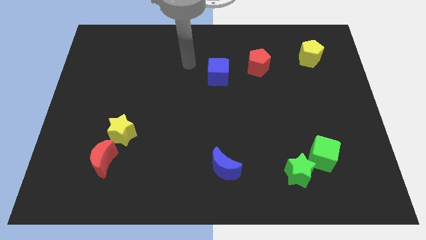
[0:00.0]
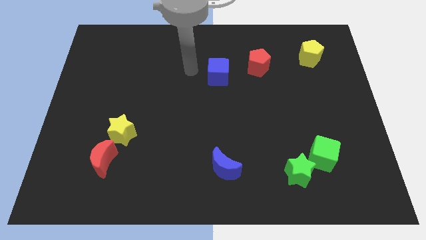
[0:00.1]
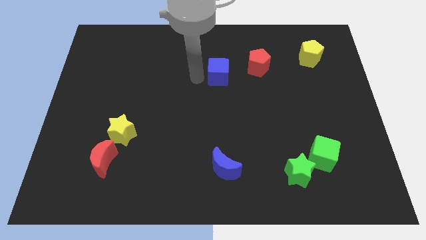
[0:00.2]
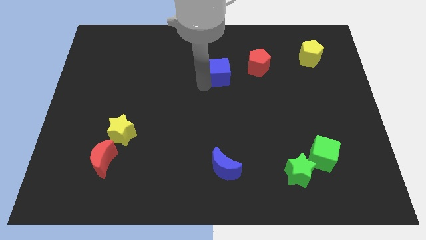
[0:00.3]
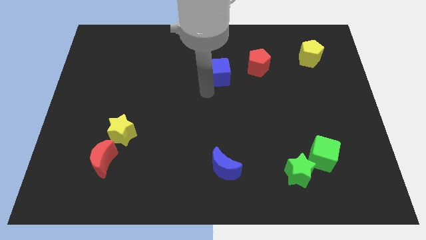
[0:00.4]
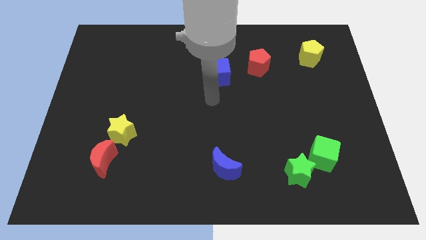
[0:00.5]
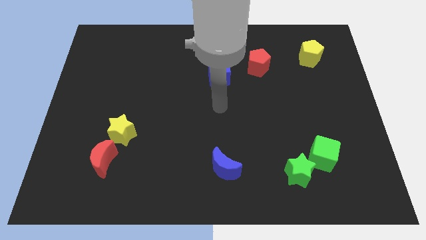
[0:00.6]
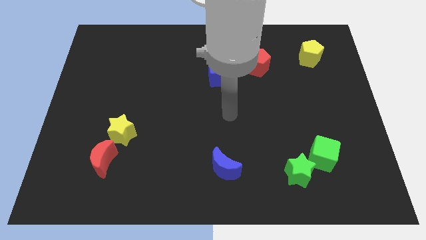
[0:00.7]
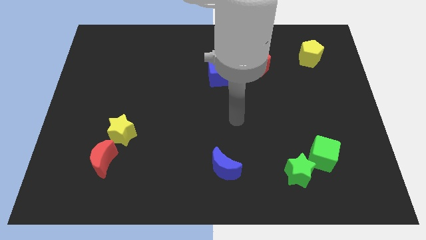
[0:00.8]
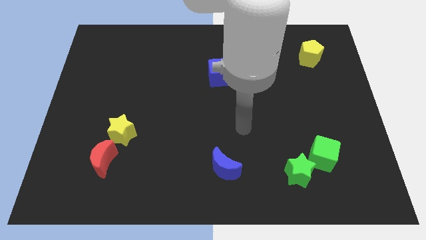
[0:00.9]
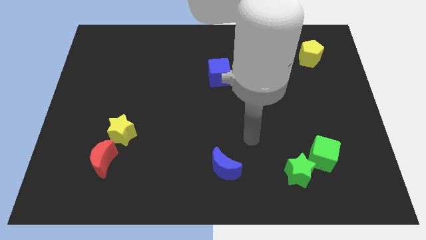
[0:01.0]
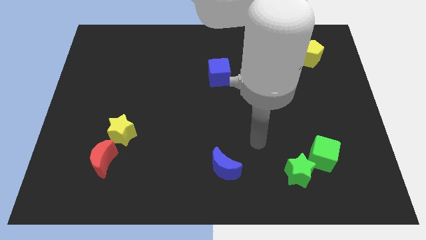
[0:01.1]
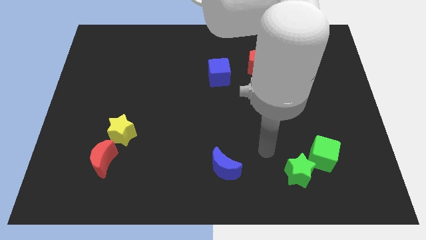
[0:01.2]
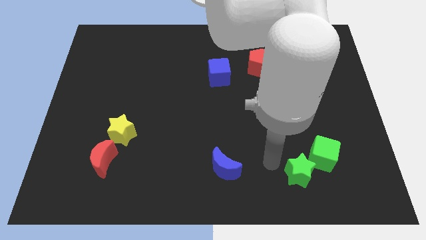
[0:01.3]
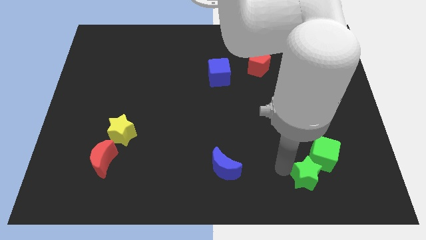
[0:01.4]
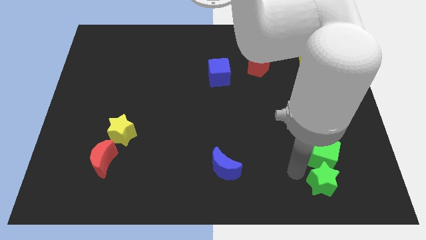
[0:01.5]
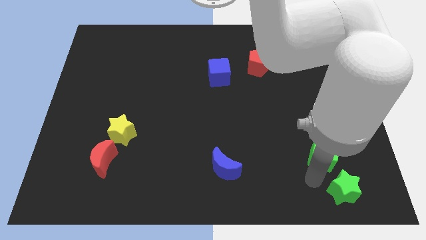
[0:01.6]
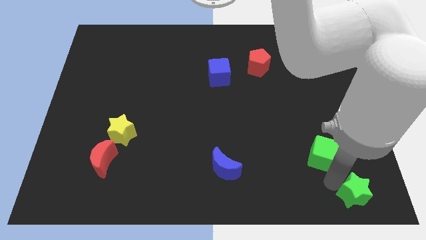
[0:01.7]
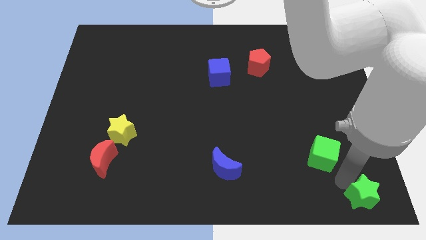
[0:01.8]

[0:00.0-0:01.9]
pull the green cube apart from the green star

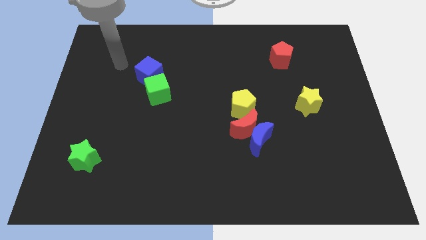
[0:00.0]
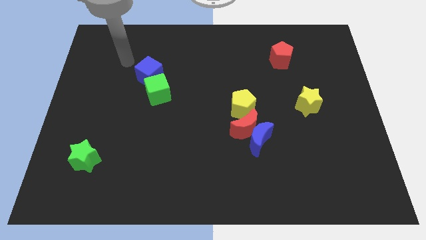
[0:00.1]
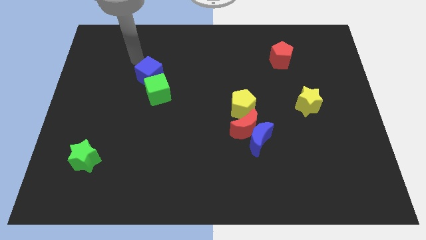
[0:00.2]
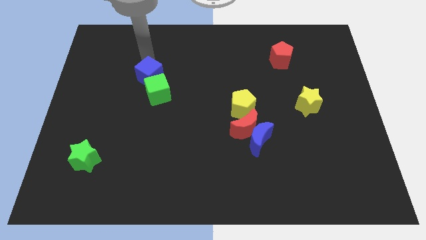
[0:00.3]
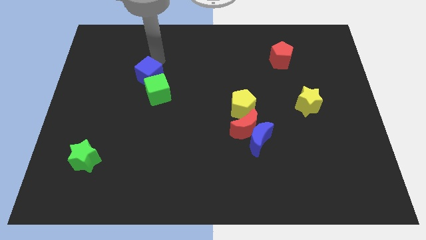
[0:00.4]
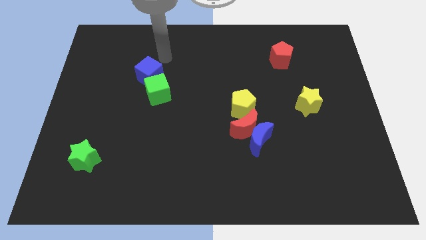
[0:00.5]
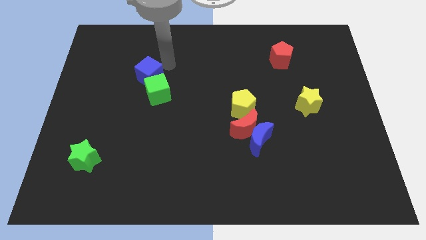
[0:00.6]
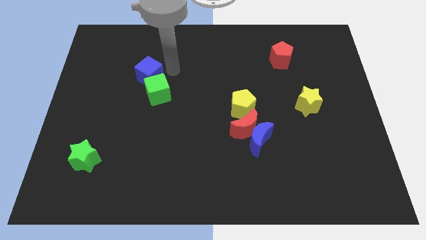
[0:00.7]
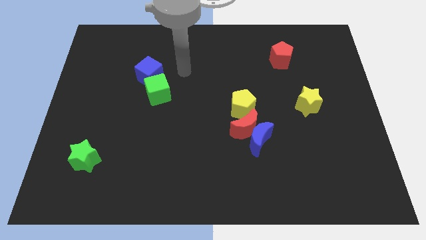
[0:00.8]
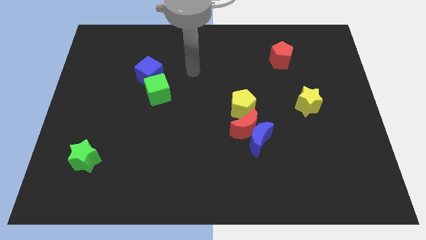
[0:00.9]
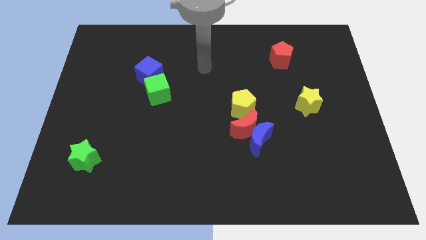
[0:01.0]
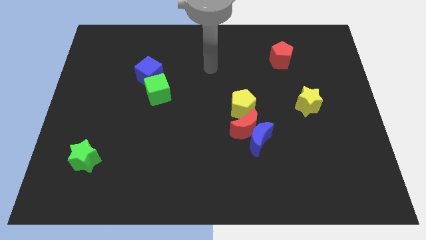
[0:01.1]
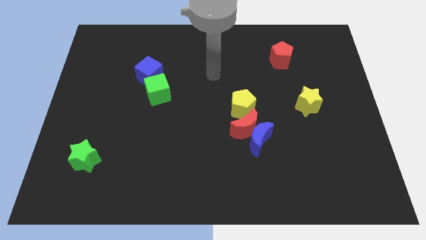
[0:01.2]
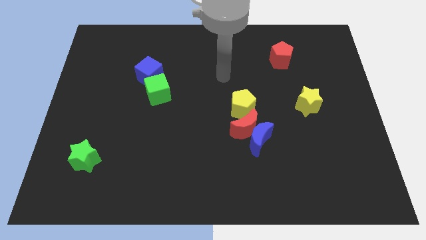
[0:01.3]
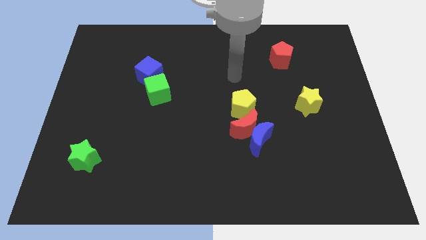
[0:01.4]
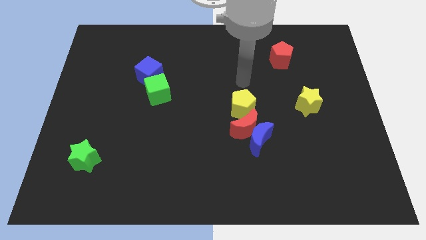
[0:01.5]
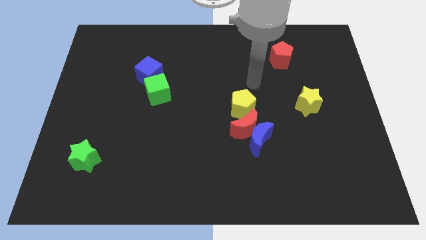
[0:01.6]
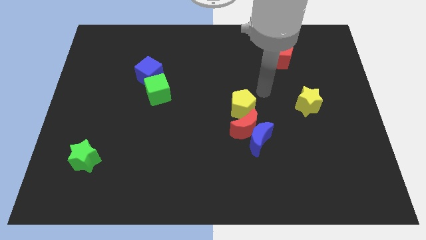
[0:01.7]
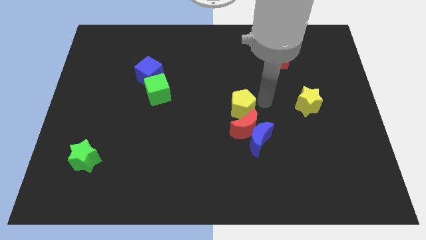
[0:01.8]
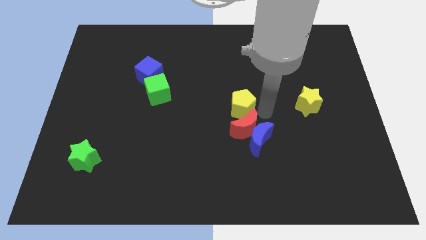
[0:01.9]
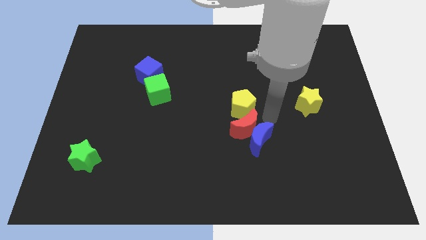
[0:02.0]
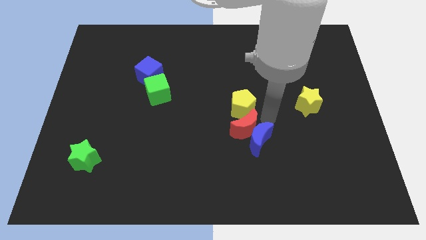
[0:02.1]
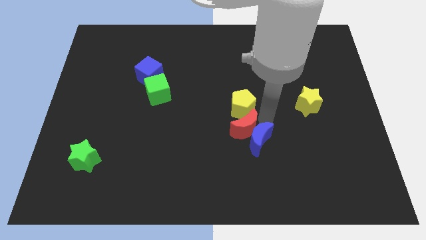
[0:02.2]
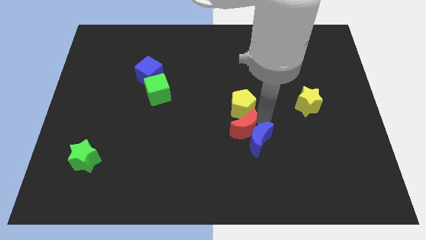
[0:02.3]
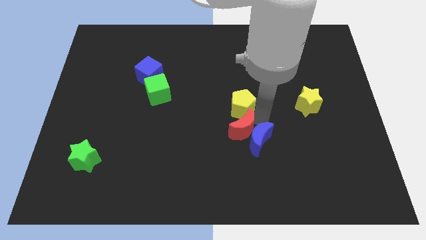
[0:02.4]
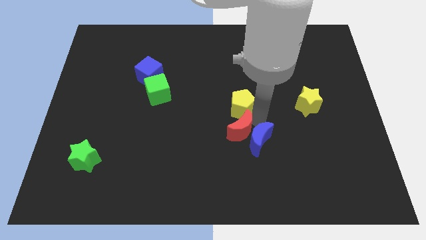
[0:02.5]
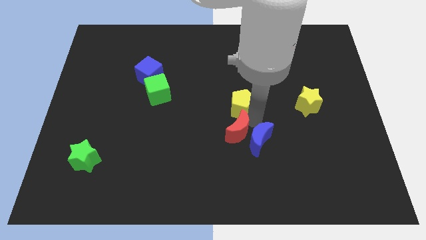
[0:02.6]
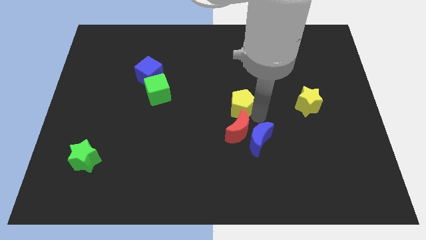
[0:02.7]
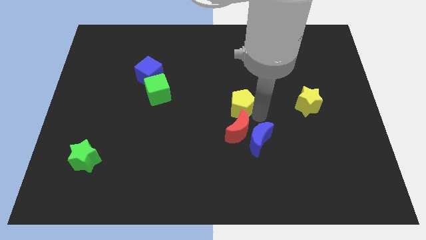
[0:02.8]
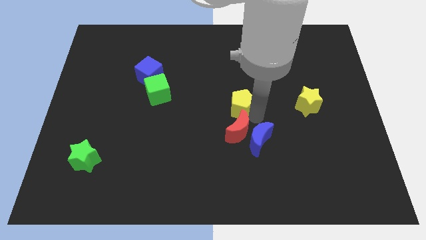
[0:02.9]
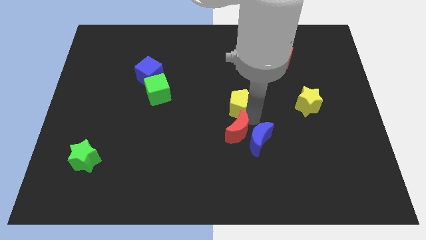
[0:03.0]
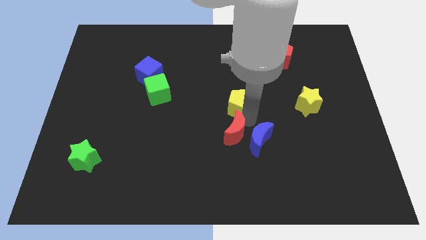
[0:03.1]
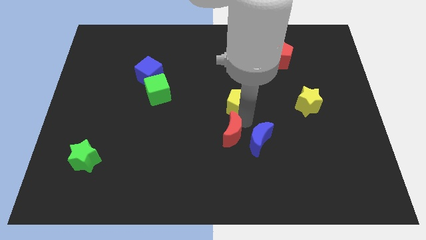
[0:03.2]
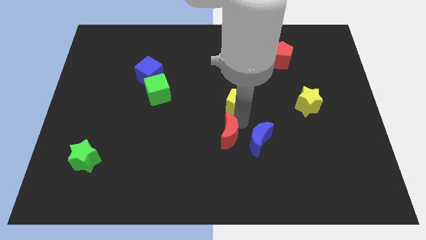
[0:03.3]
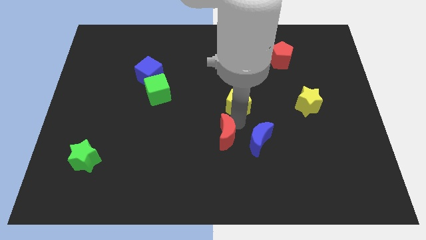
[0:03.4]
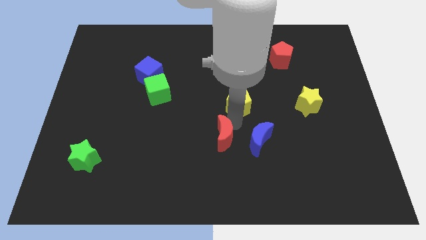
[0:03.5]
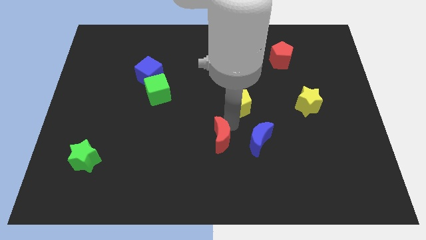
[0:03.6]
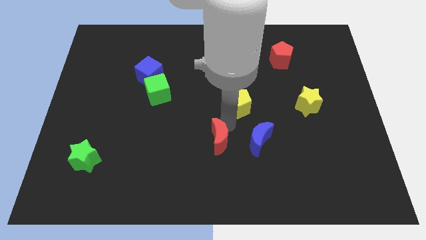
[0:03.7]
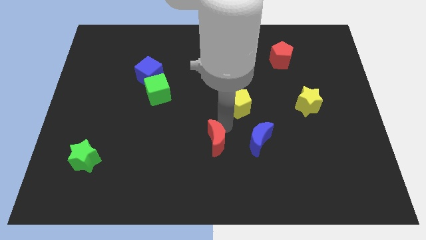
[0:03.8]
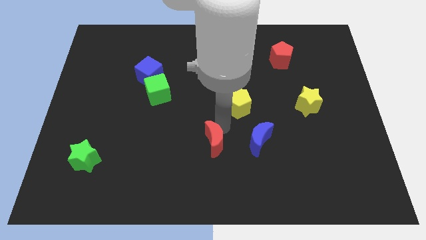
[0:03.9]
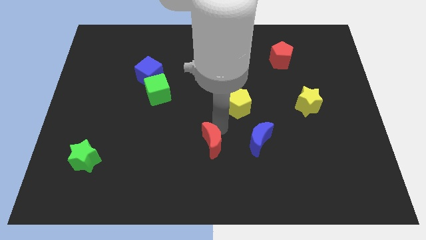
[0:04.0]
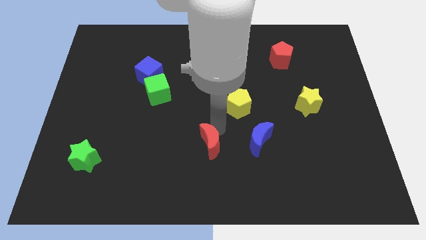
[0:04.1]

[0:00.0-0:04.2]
separate the red moon from the blue moon and yellow pentagon

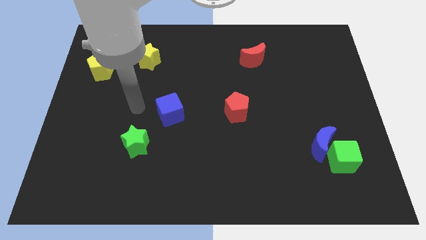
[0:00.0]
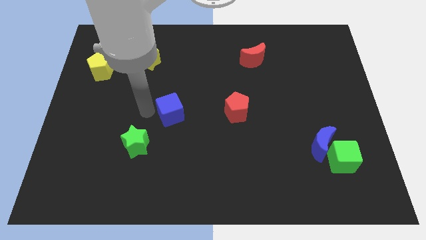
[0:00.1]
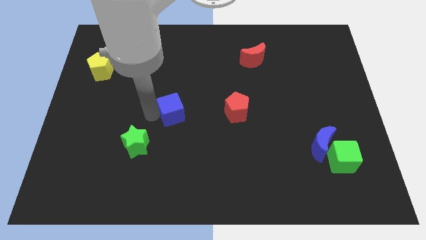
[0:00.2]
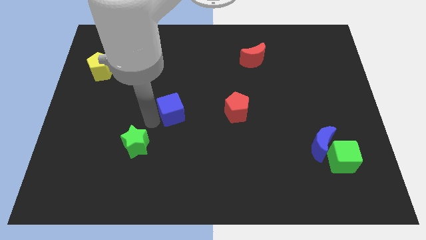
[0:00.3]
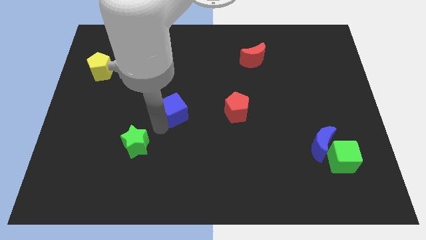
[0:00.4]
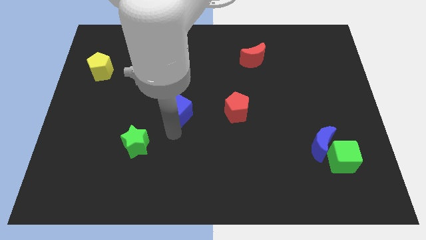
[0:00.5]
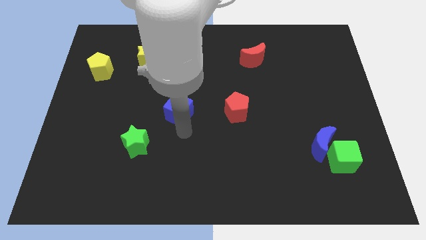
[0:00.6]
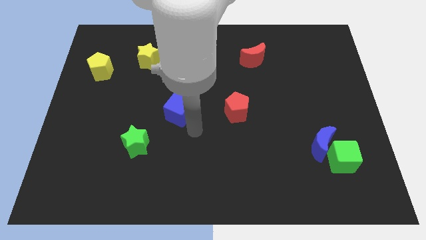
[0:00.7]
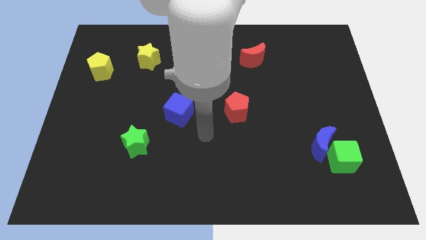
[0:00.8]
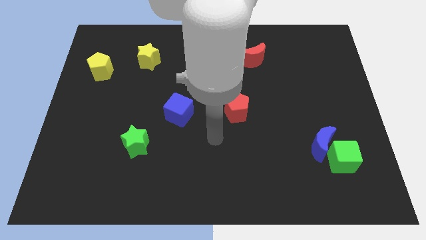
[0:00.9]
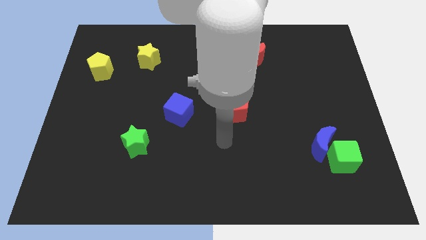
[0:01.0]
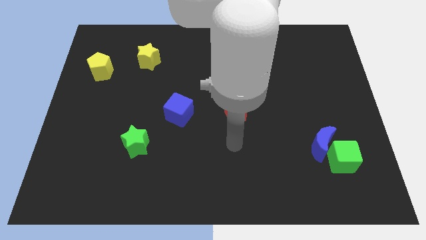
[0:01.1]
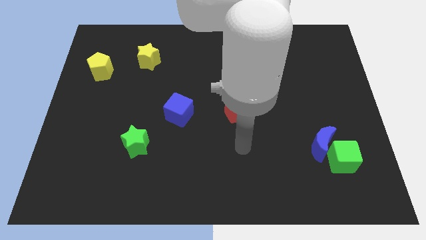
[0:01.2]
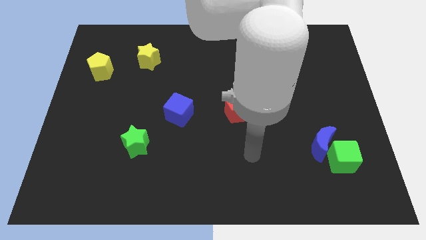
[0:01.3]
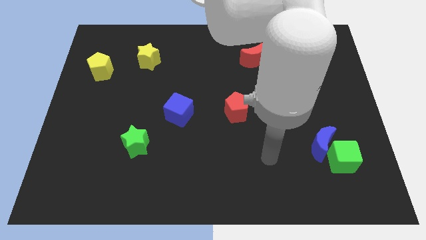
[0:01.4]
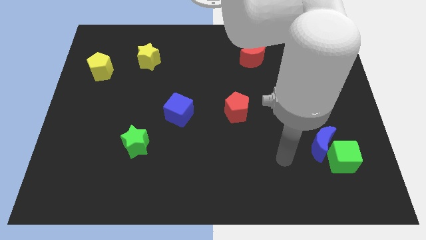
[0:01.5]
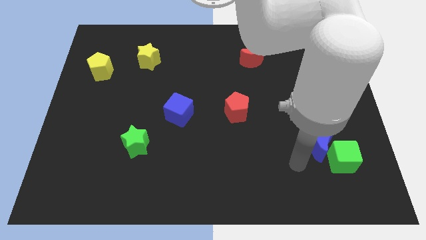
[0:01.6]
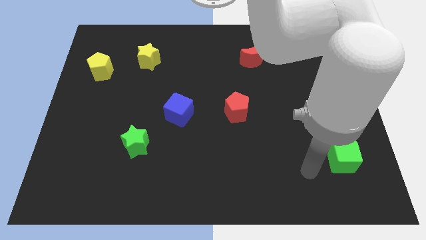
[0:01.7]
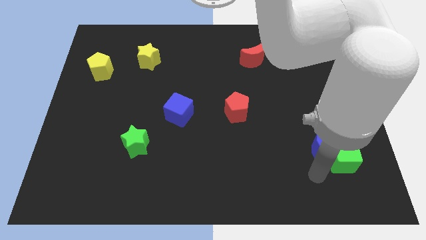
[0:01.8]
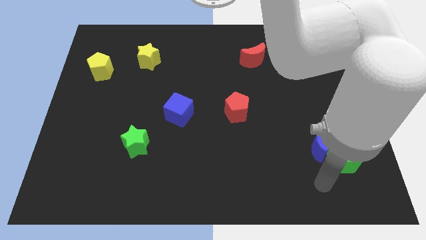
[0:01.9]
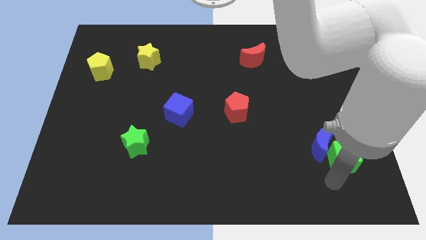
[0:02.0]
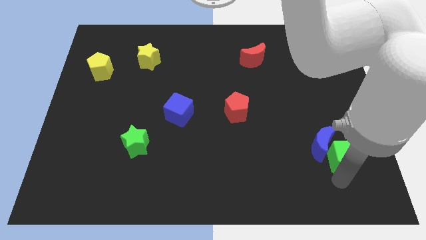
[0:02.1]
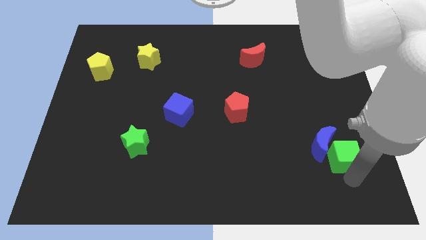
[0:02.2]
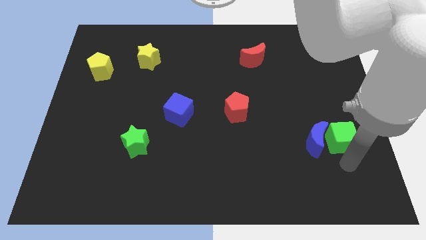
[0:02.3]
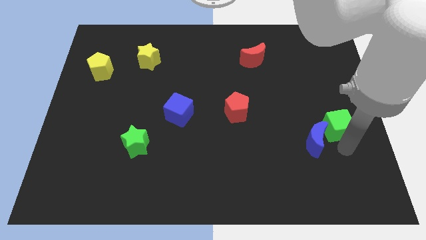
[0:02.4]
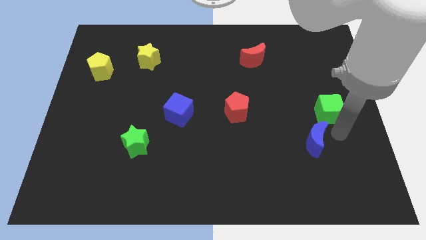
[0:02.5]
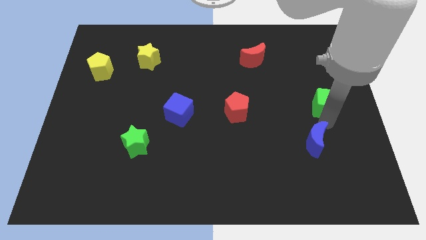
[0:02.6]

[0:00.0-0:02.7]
pull the blue moon apart from the green cube

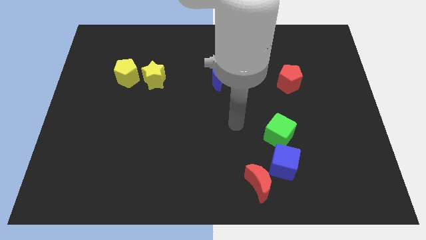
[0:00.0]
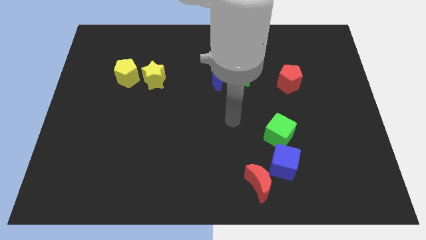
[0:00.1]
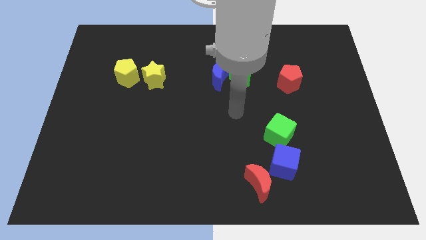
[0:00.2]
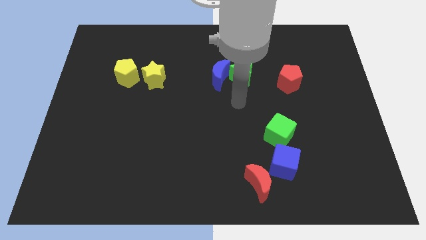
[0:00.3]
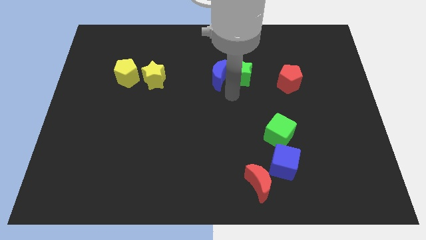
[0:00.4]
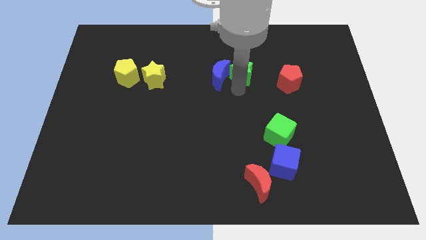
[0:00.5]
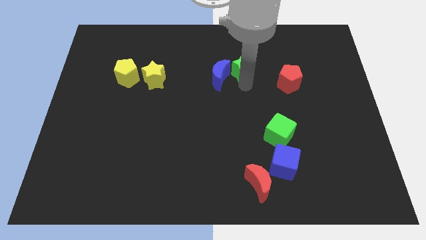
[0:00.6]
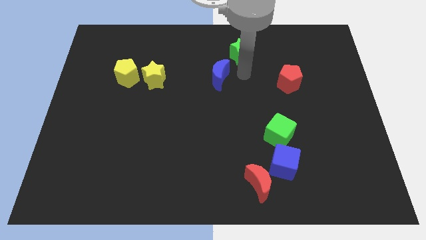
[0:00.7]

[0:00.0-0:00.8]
move the blue moon away from the green star
